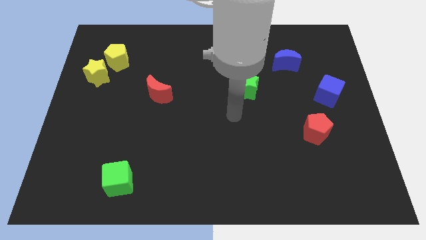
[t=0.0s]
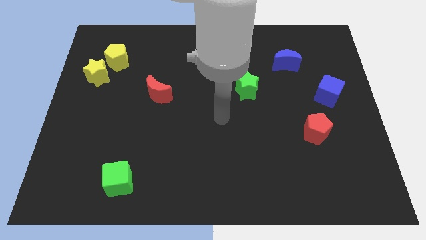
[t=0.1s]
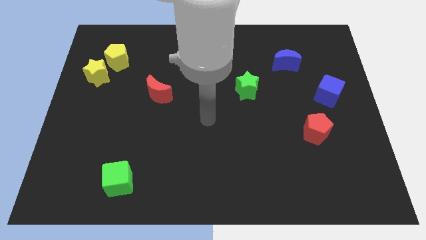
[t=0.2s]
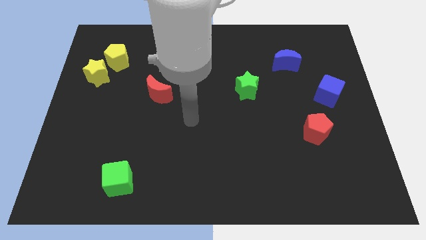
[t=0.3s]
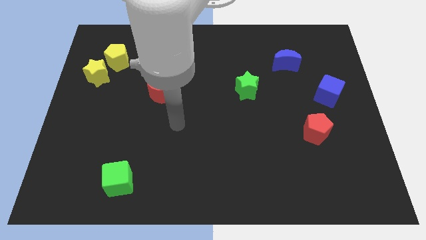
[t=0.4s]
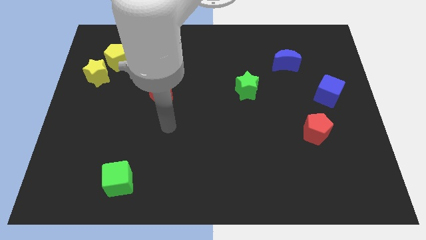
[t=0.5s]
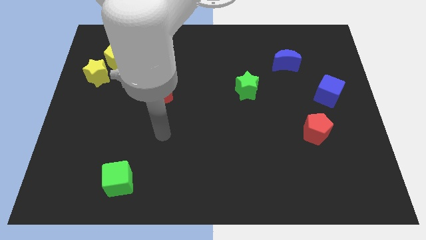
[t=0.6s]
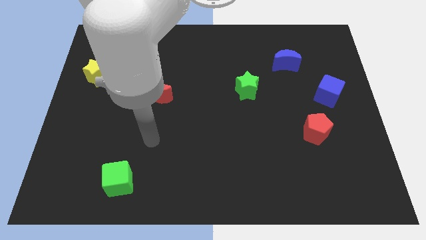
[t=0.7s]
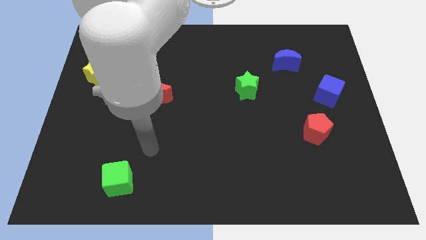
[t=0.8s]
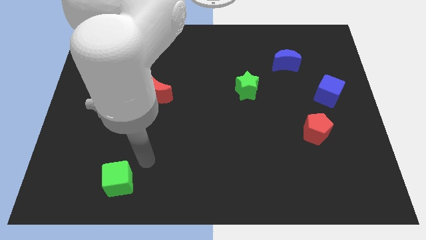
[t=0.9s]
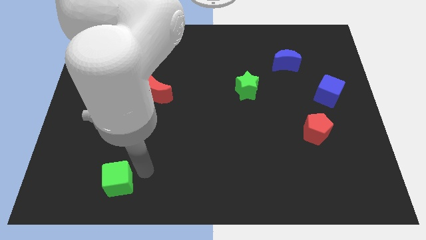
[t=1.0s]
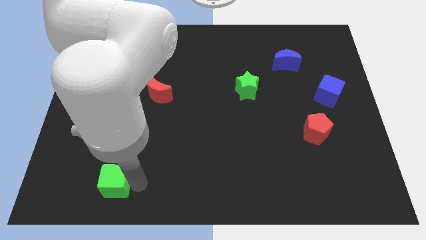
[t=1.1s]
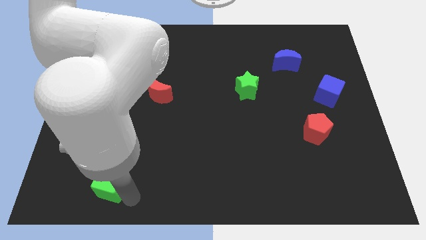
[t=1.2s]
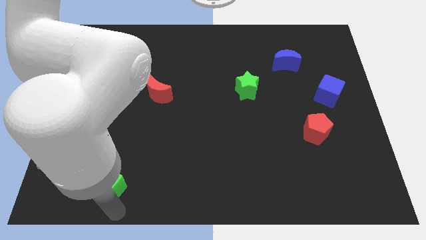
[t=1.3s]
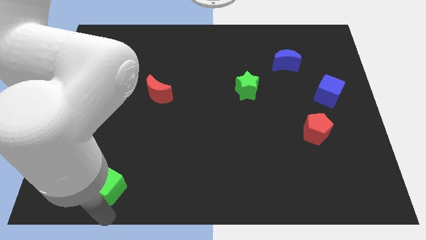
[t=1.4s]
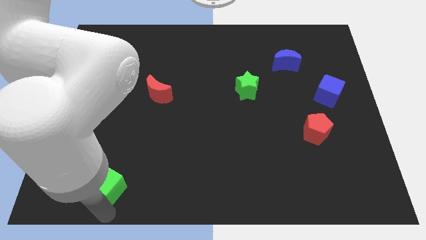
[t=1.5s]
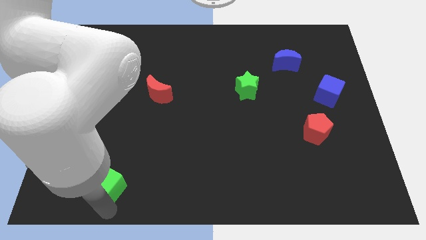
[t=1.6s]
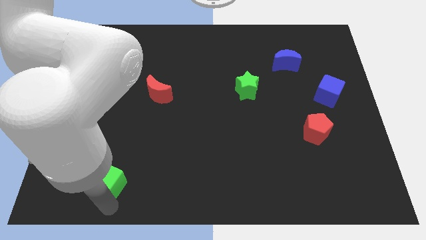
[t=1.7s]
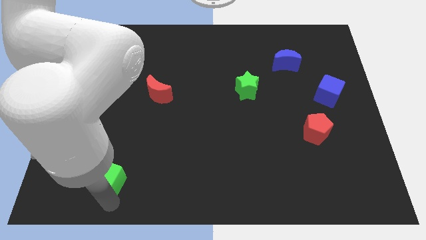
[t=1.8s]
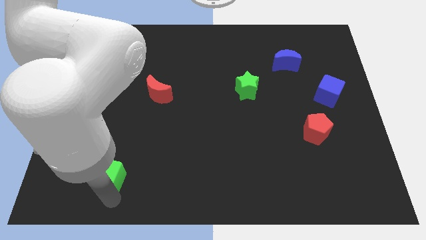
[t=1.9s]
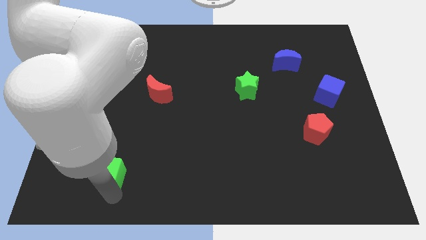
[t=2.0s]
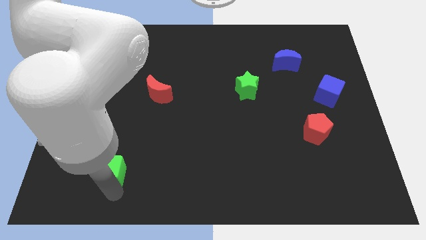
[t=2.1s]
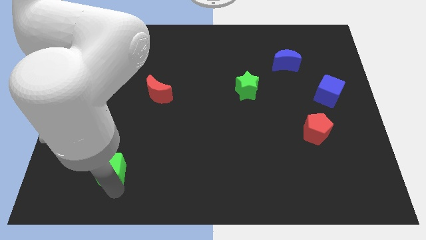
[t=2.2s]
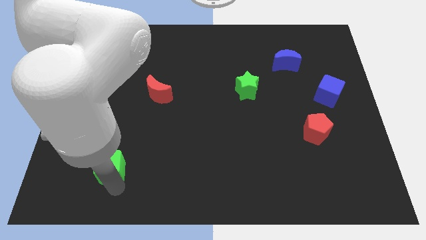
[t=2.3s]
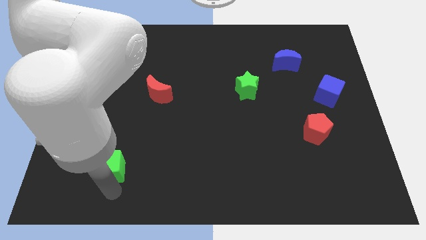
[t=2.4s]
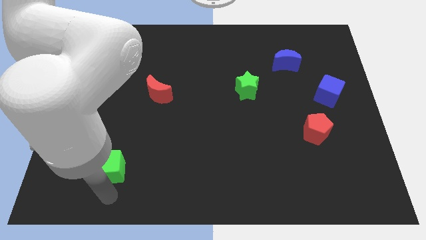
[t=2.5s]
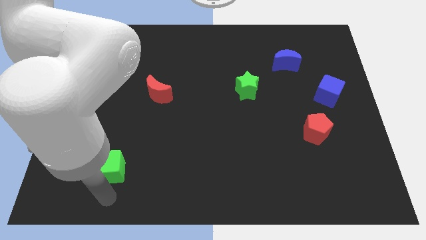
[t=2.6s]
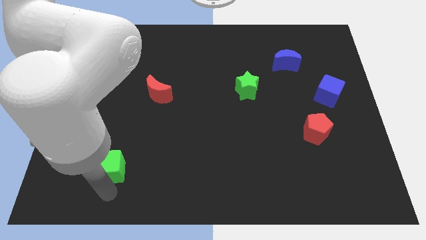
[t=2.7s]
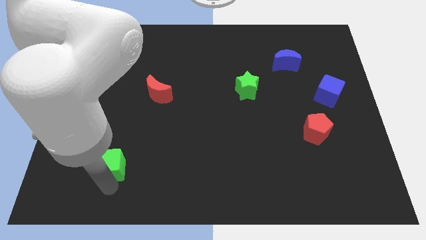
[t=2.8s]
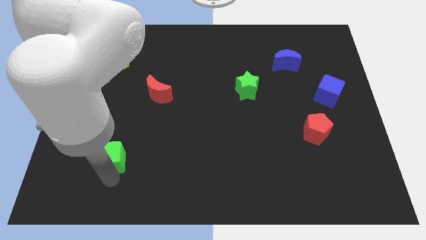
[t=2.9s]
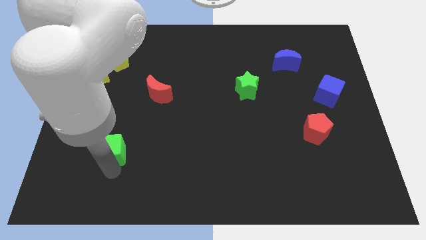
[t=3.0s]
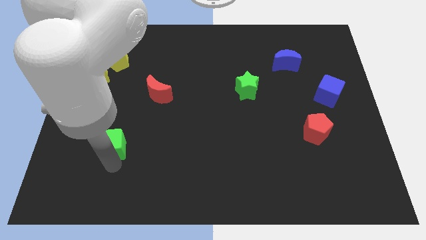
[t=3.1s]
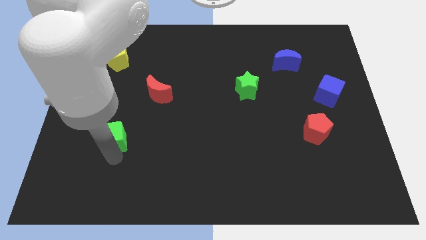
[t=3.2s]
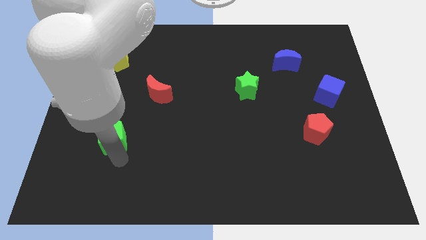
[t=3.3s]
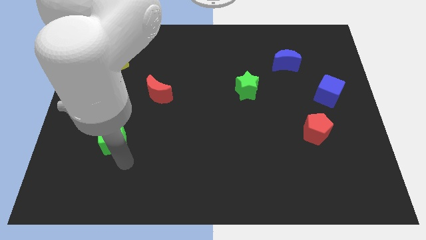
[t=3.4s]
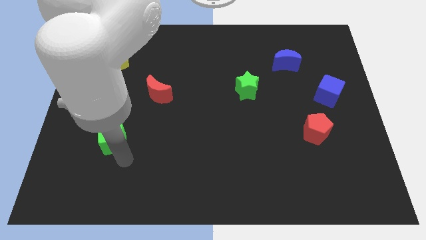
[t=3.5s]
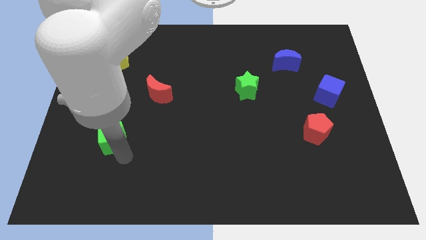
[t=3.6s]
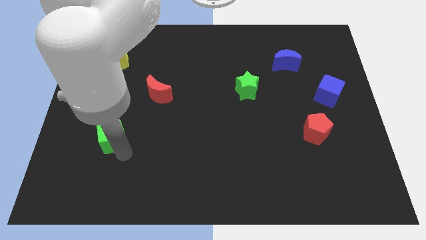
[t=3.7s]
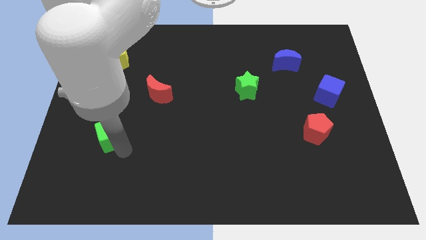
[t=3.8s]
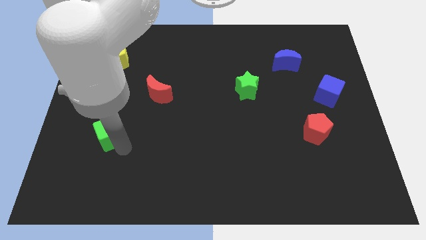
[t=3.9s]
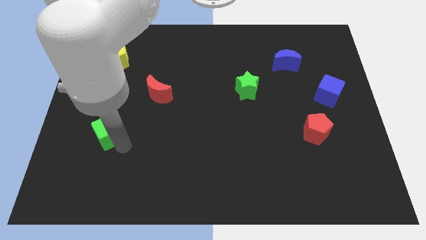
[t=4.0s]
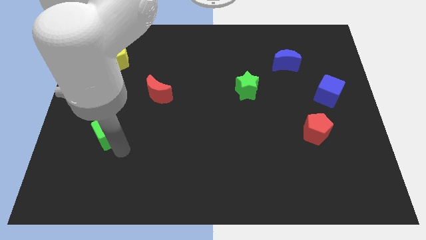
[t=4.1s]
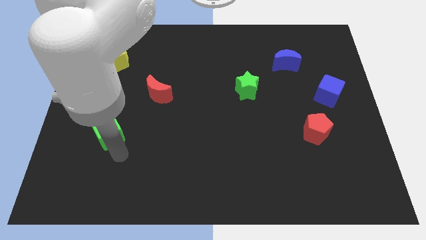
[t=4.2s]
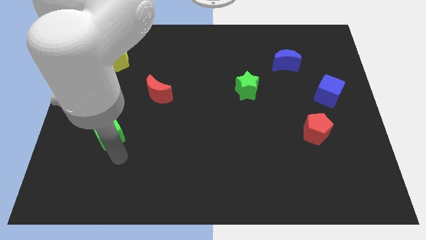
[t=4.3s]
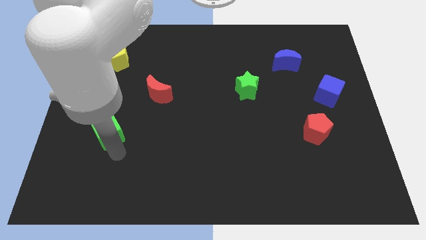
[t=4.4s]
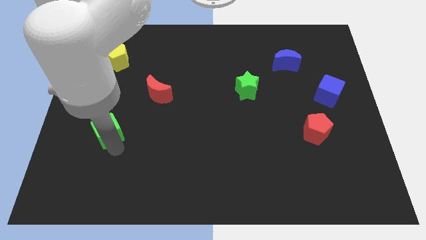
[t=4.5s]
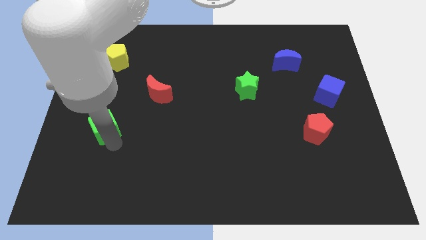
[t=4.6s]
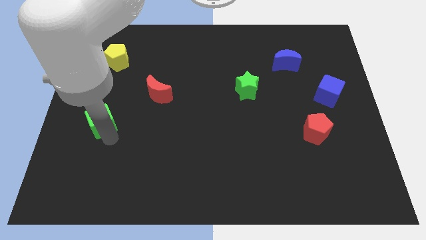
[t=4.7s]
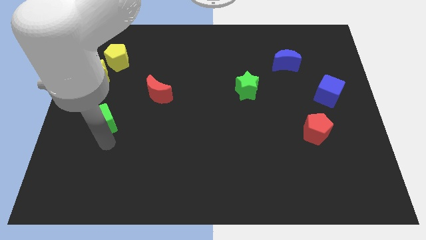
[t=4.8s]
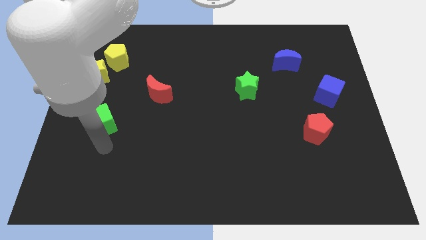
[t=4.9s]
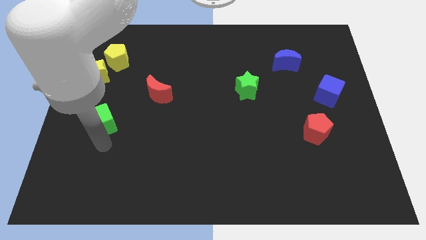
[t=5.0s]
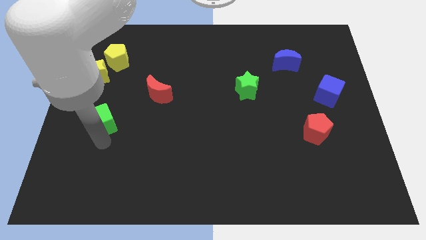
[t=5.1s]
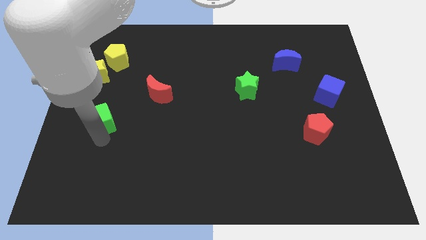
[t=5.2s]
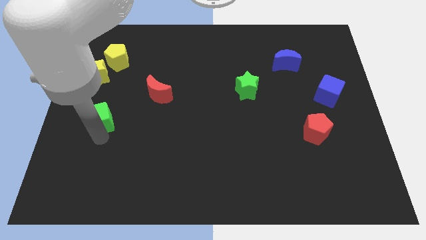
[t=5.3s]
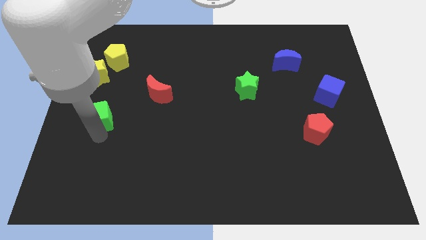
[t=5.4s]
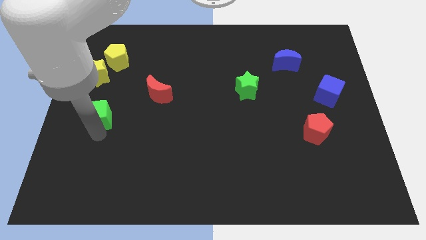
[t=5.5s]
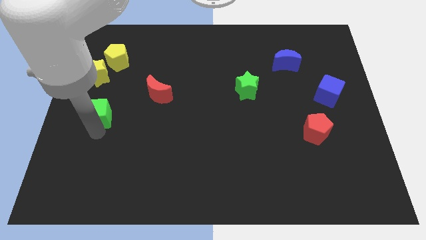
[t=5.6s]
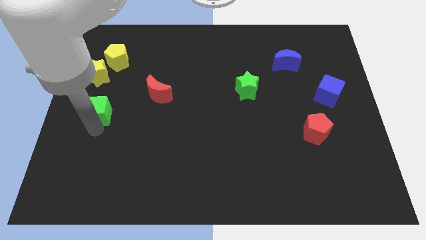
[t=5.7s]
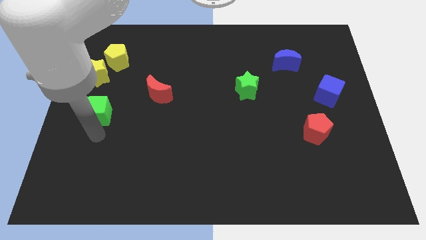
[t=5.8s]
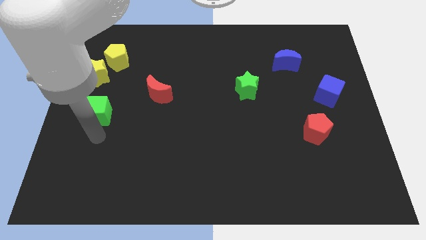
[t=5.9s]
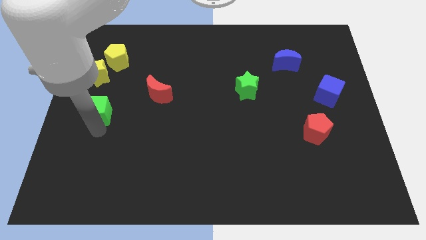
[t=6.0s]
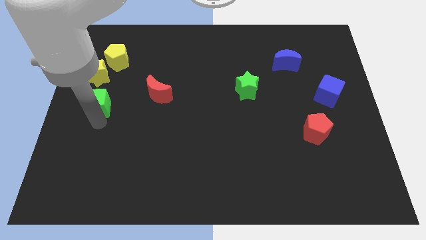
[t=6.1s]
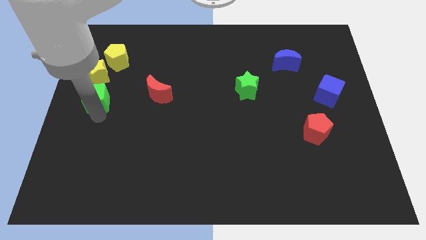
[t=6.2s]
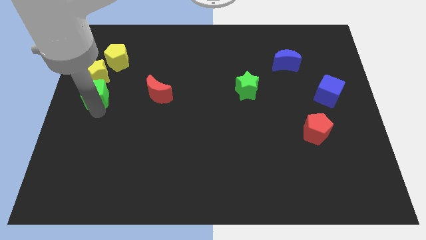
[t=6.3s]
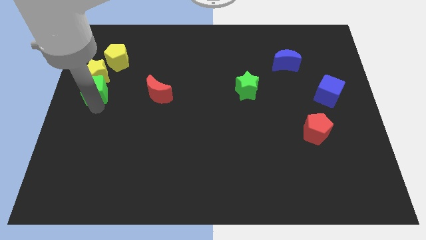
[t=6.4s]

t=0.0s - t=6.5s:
put the green cube close to the yellow star
